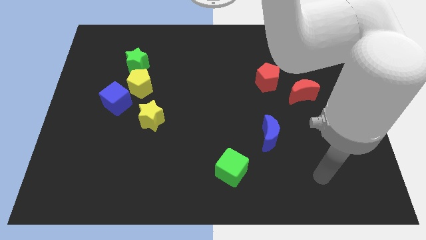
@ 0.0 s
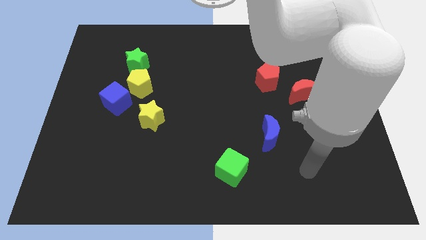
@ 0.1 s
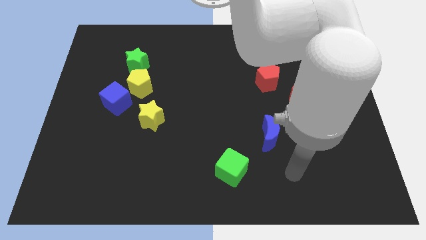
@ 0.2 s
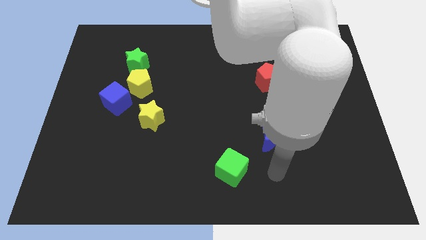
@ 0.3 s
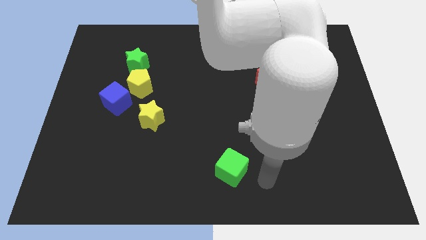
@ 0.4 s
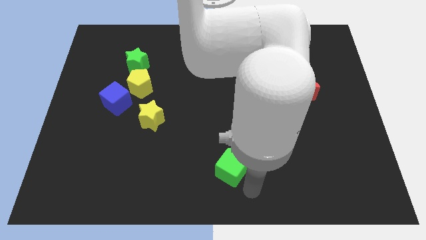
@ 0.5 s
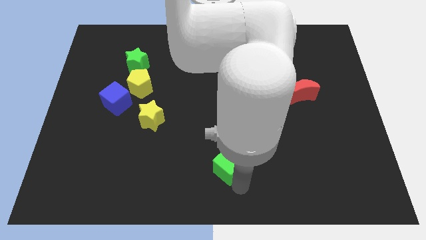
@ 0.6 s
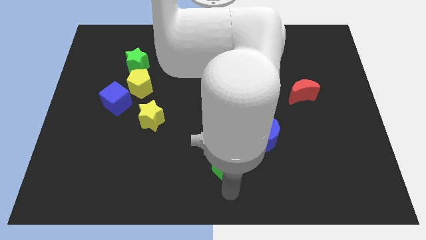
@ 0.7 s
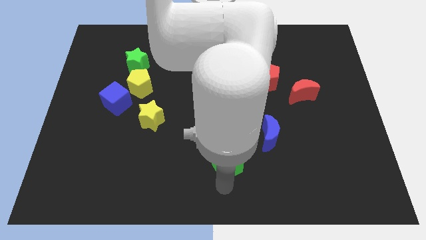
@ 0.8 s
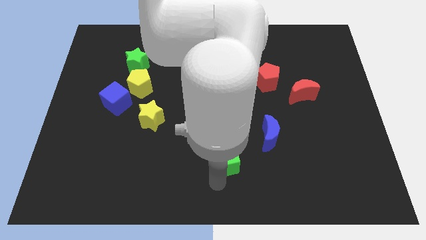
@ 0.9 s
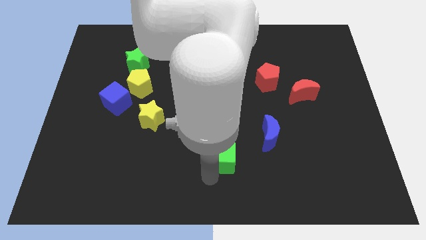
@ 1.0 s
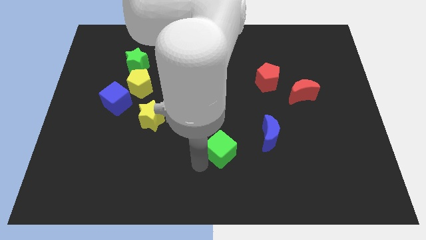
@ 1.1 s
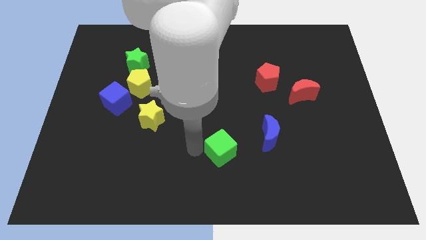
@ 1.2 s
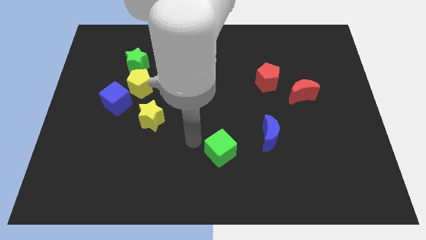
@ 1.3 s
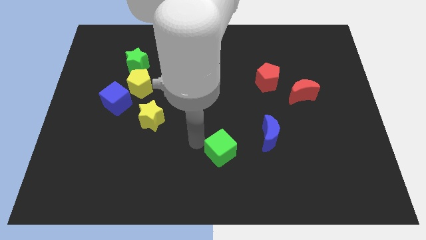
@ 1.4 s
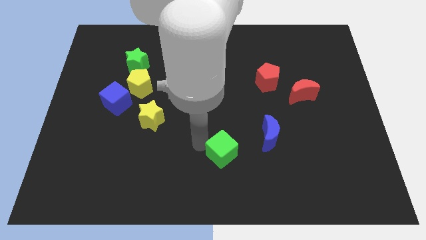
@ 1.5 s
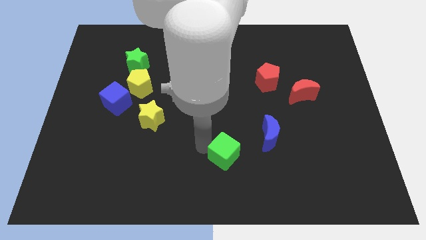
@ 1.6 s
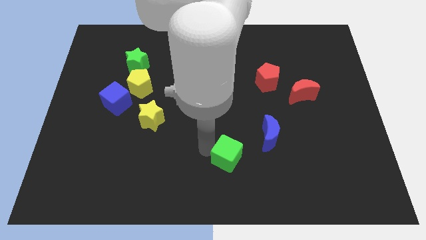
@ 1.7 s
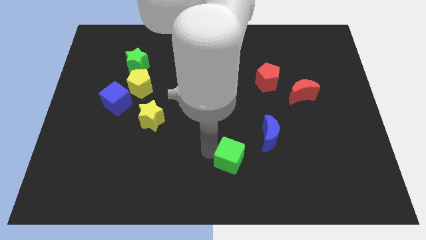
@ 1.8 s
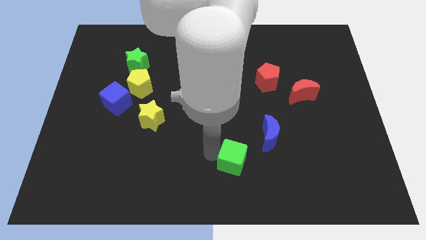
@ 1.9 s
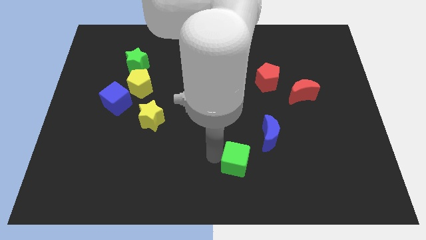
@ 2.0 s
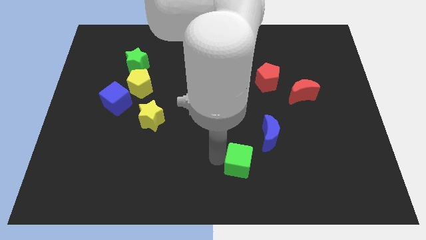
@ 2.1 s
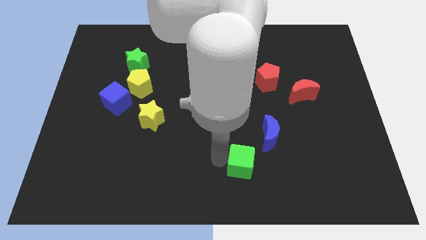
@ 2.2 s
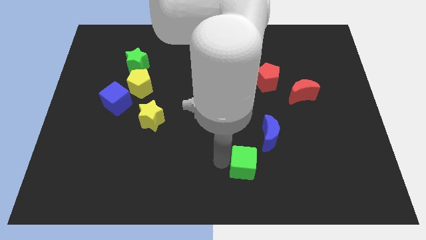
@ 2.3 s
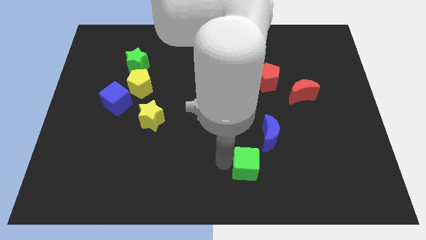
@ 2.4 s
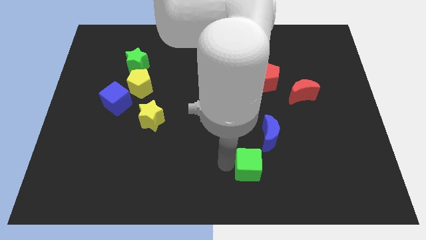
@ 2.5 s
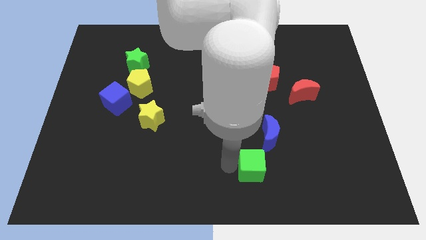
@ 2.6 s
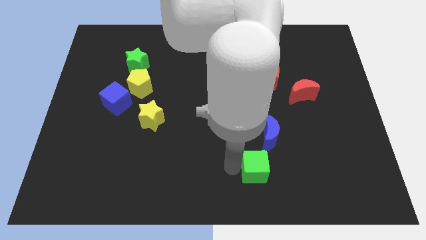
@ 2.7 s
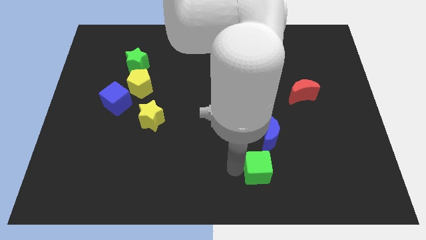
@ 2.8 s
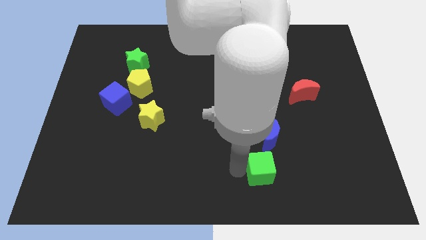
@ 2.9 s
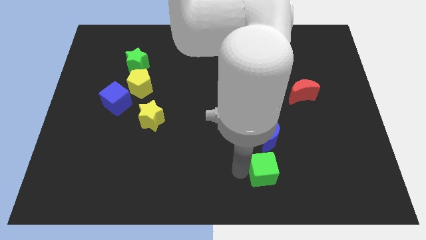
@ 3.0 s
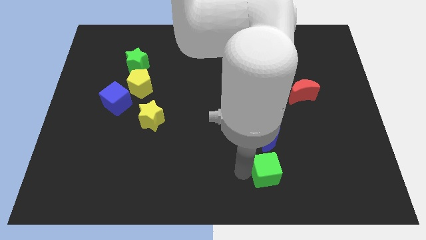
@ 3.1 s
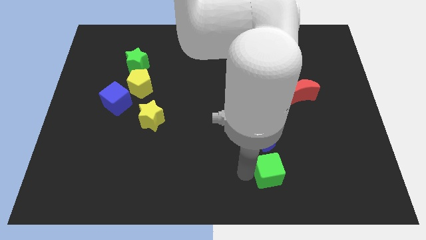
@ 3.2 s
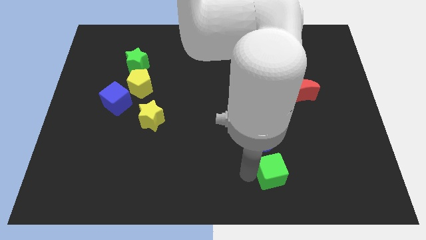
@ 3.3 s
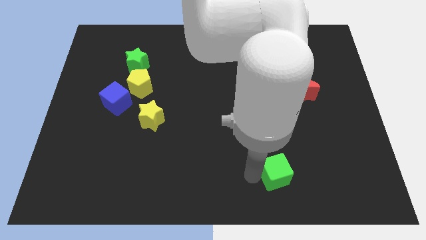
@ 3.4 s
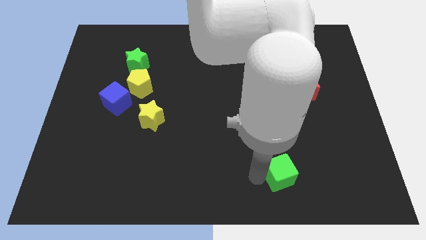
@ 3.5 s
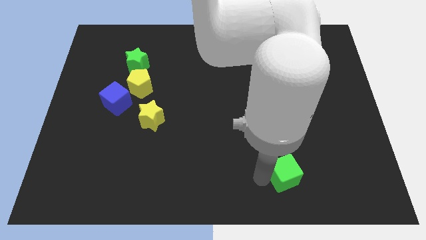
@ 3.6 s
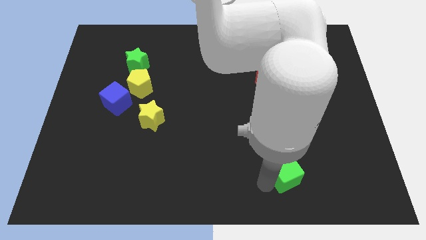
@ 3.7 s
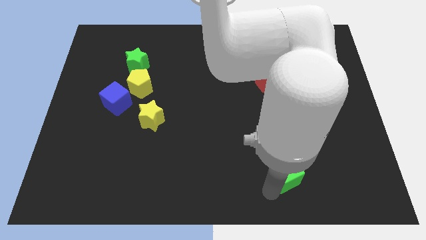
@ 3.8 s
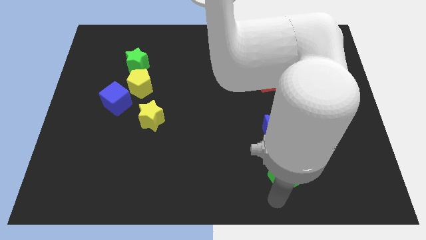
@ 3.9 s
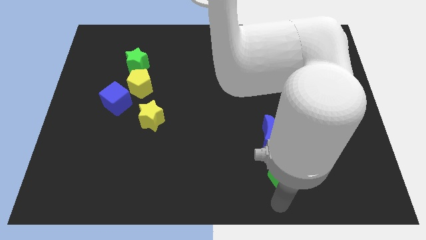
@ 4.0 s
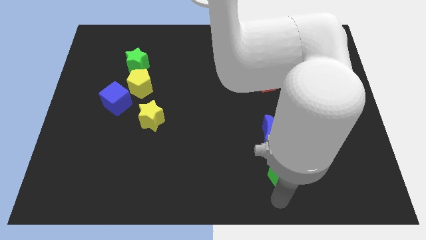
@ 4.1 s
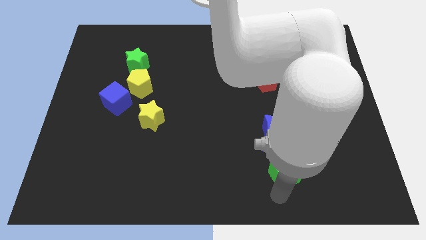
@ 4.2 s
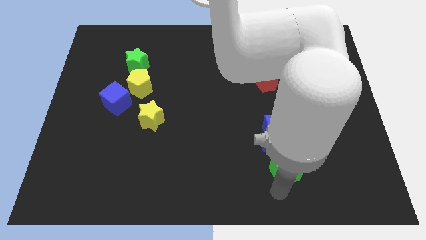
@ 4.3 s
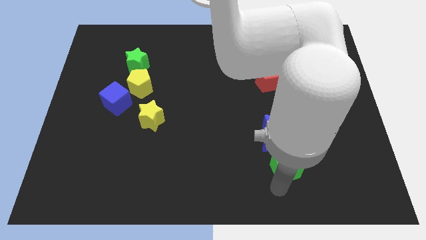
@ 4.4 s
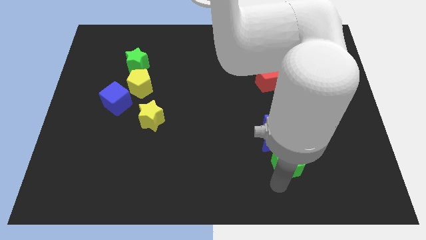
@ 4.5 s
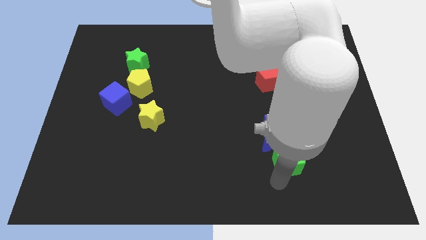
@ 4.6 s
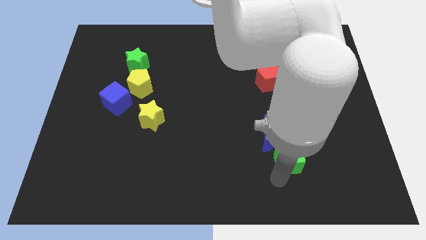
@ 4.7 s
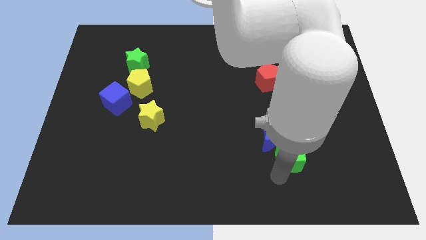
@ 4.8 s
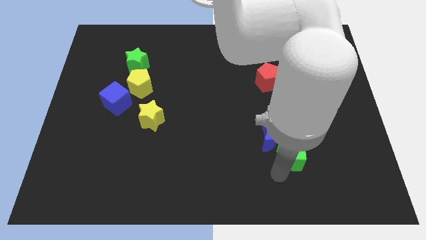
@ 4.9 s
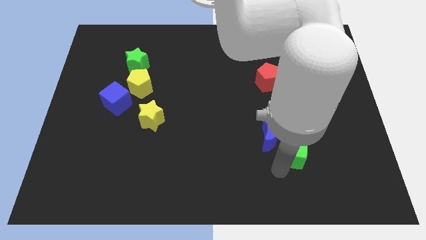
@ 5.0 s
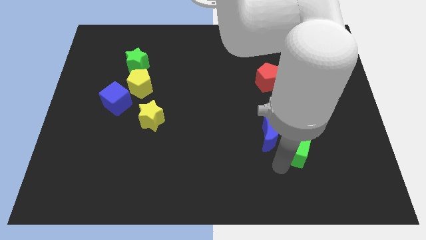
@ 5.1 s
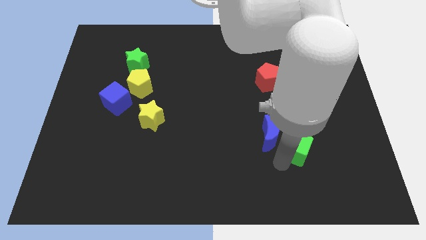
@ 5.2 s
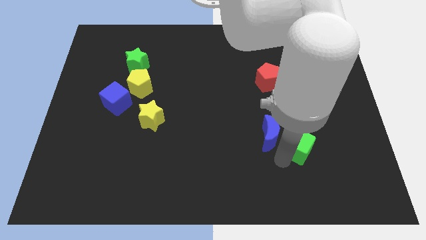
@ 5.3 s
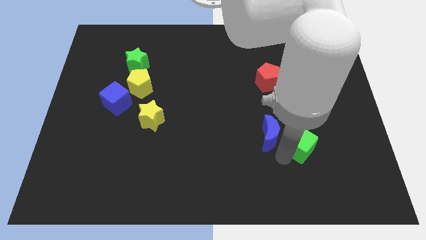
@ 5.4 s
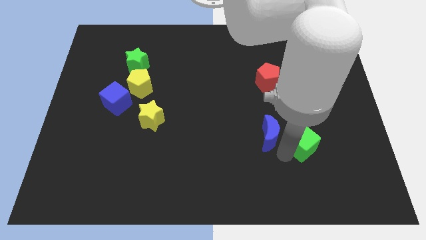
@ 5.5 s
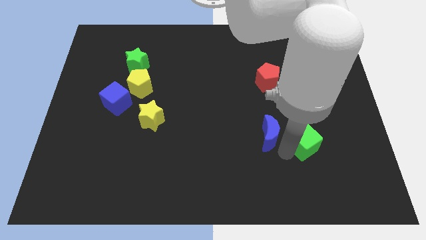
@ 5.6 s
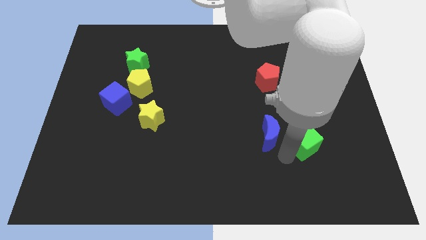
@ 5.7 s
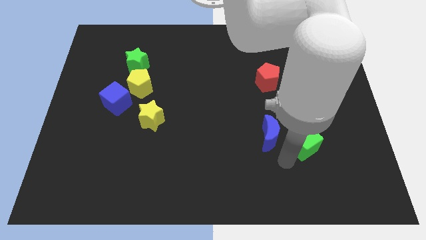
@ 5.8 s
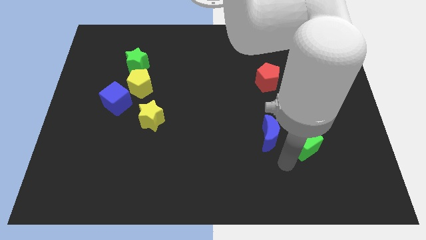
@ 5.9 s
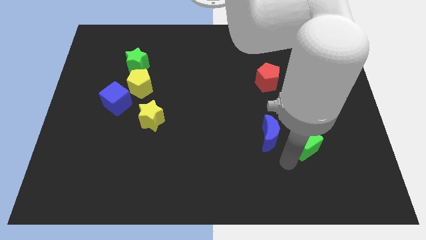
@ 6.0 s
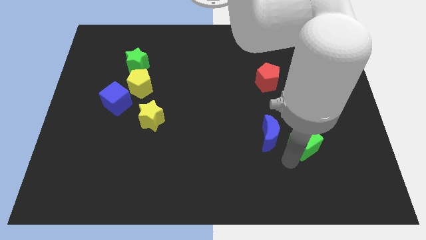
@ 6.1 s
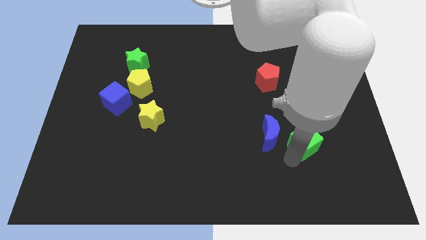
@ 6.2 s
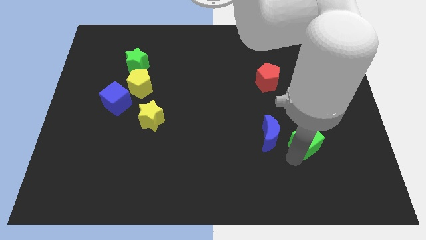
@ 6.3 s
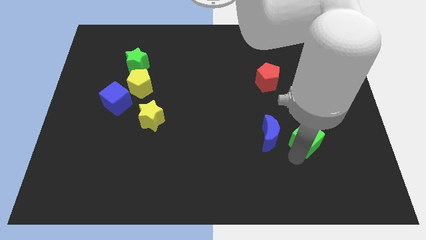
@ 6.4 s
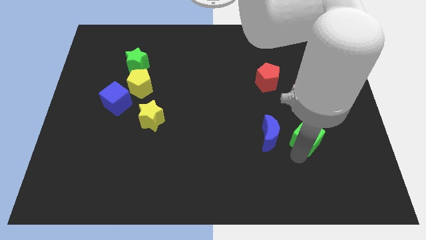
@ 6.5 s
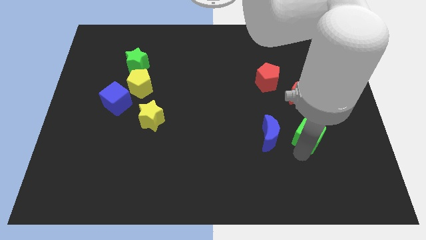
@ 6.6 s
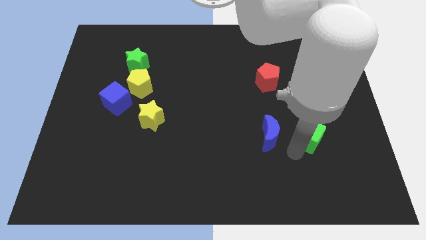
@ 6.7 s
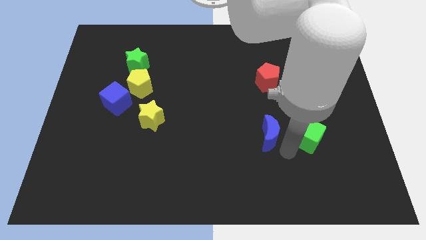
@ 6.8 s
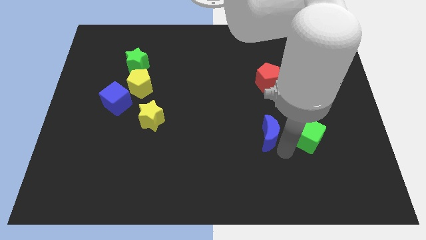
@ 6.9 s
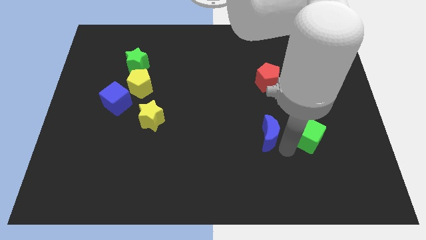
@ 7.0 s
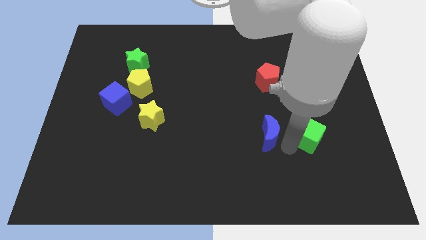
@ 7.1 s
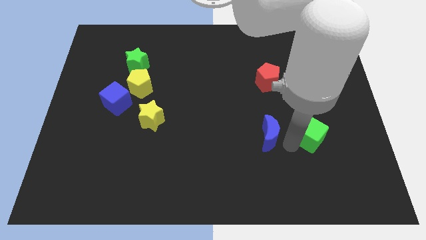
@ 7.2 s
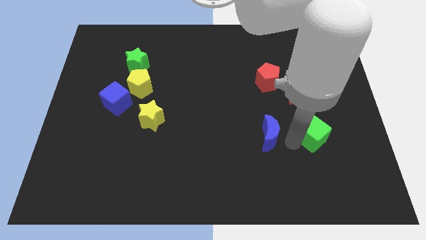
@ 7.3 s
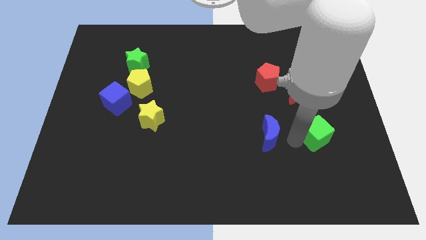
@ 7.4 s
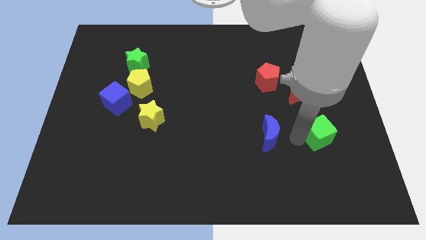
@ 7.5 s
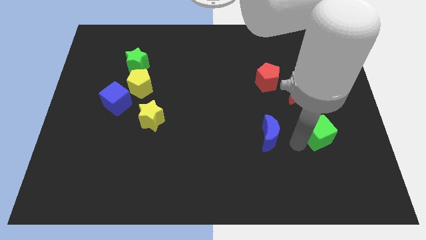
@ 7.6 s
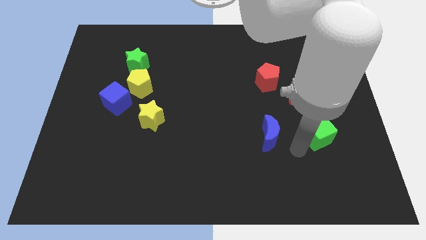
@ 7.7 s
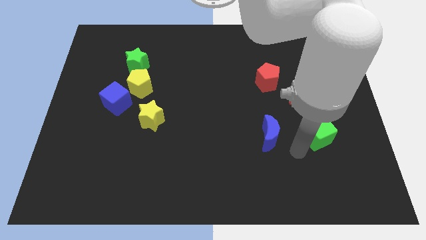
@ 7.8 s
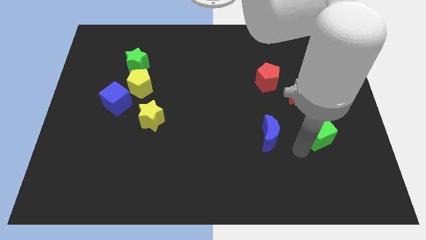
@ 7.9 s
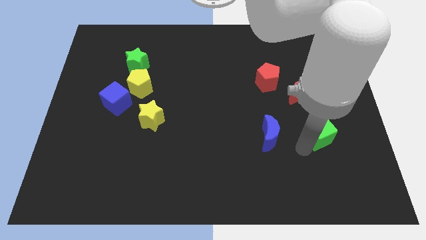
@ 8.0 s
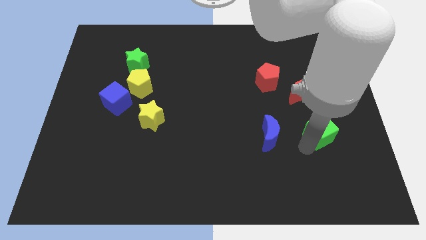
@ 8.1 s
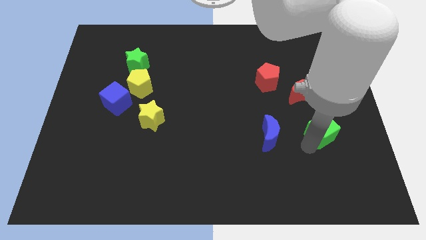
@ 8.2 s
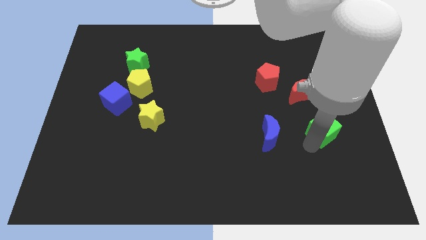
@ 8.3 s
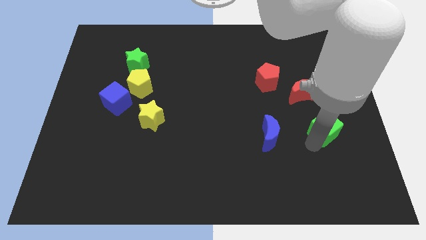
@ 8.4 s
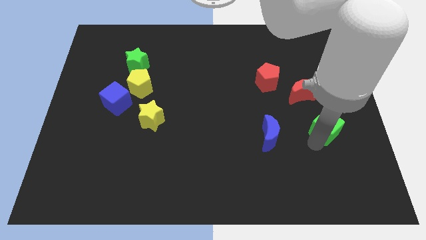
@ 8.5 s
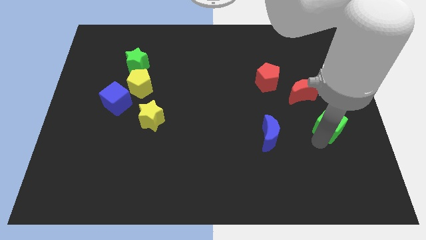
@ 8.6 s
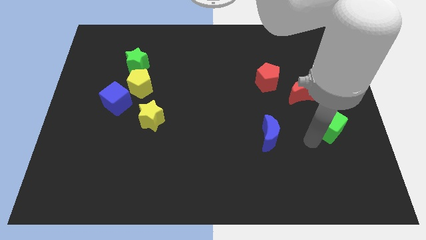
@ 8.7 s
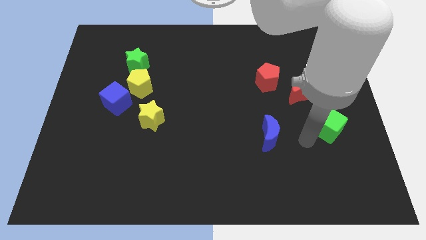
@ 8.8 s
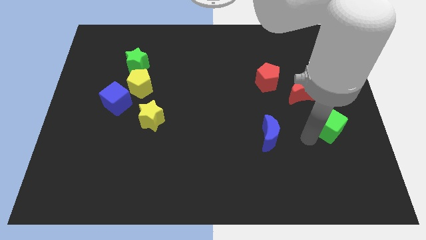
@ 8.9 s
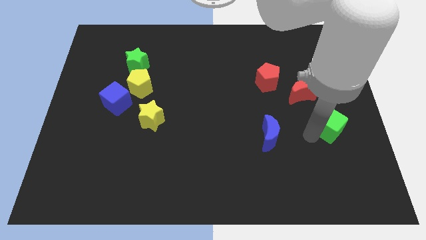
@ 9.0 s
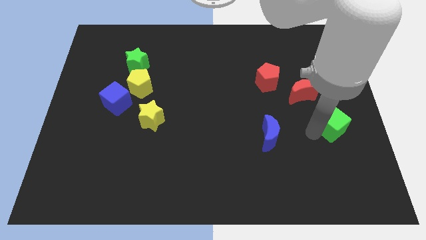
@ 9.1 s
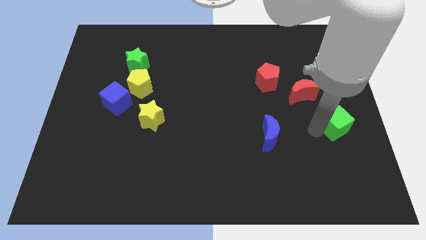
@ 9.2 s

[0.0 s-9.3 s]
put the green cube to the right side of the board
